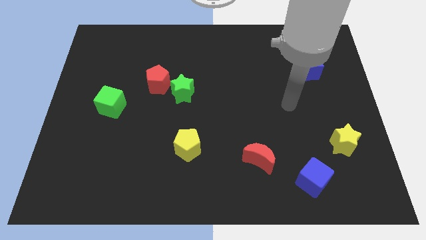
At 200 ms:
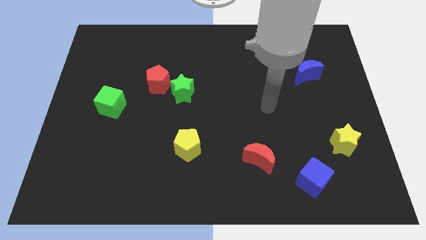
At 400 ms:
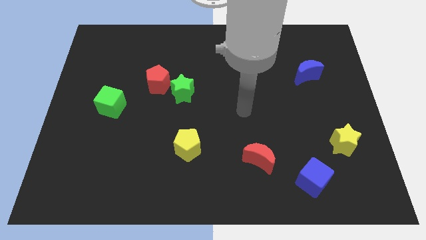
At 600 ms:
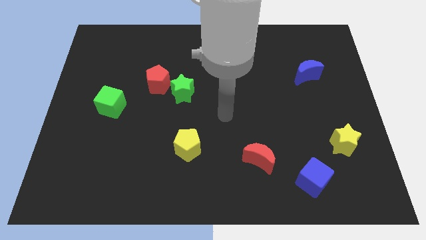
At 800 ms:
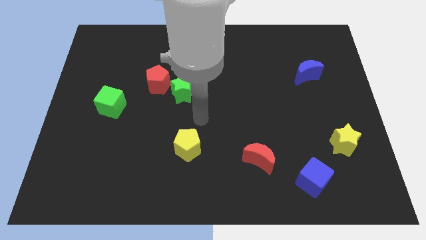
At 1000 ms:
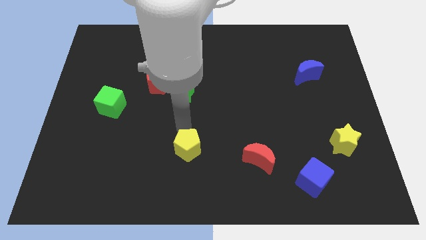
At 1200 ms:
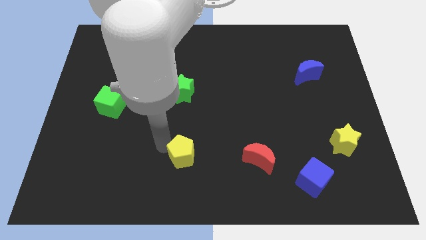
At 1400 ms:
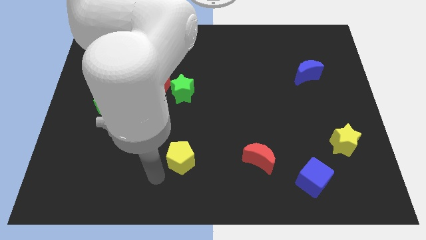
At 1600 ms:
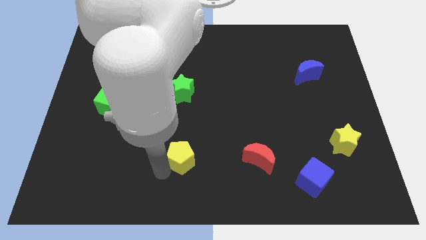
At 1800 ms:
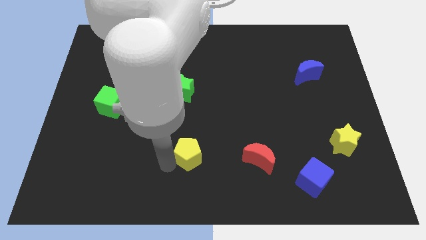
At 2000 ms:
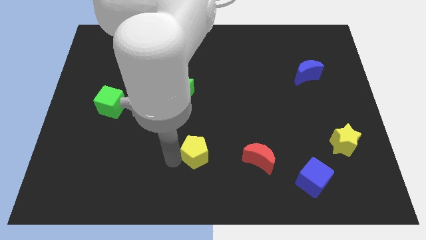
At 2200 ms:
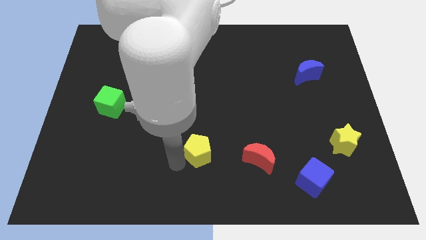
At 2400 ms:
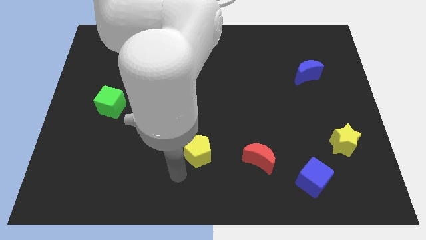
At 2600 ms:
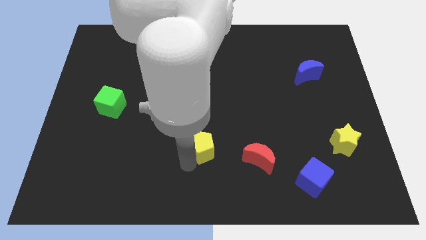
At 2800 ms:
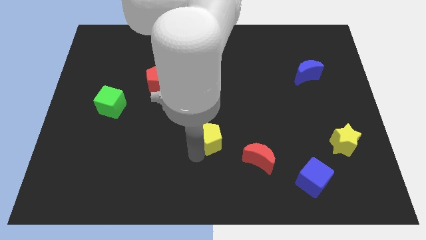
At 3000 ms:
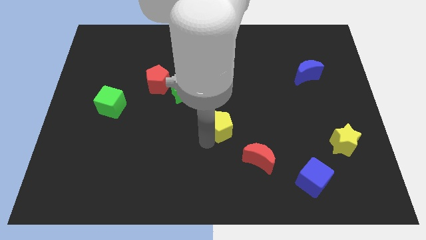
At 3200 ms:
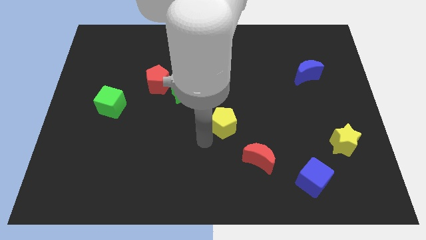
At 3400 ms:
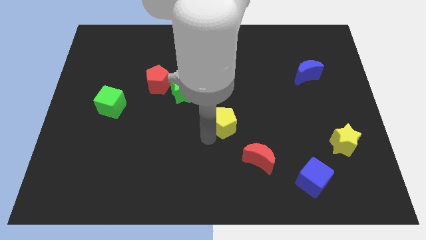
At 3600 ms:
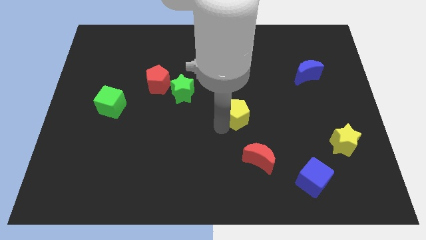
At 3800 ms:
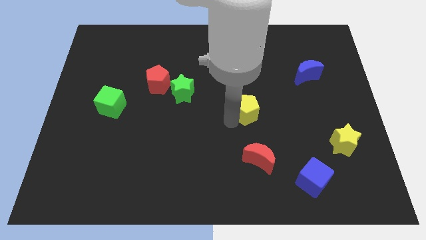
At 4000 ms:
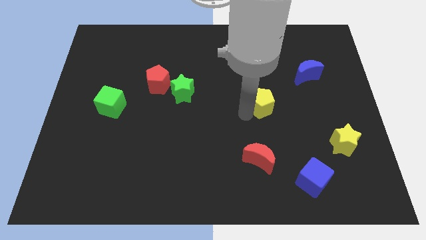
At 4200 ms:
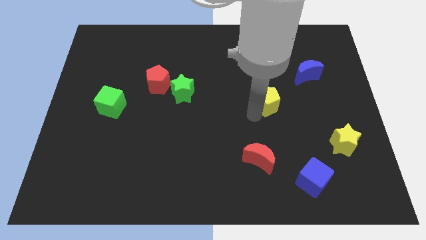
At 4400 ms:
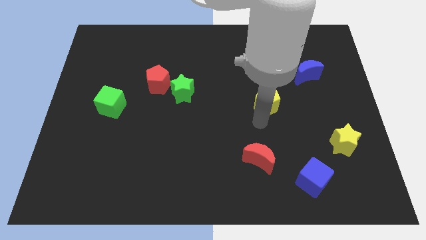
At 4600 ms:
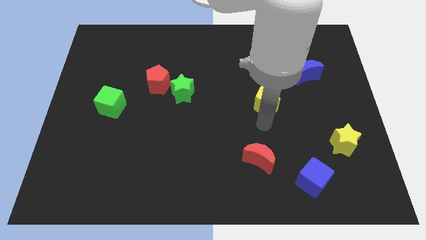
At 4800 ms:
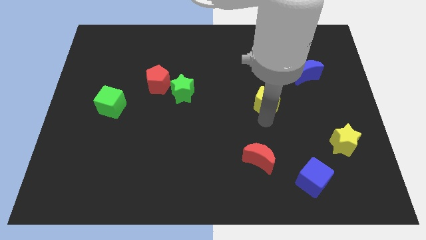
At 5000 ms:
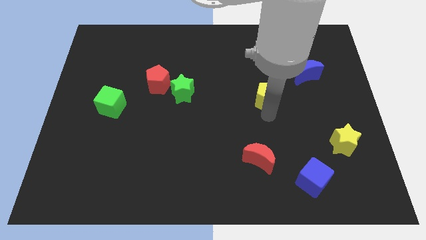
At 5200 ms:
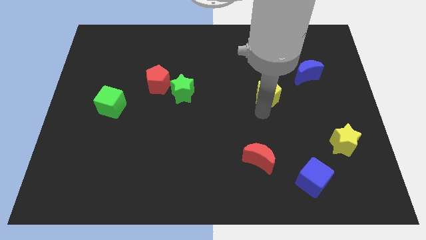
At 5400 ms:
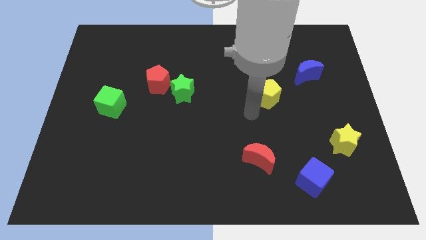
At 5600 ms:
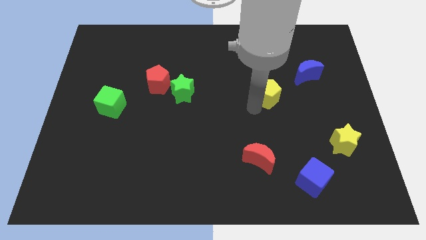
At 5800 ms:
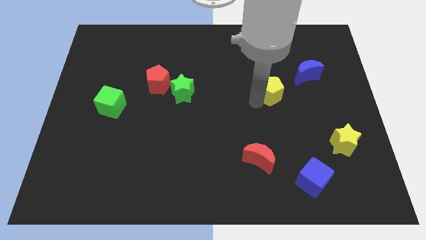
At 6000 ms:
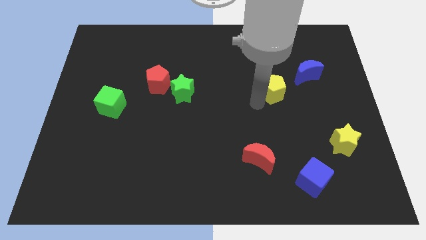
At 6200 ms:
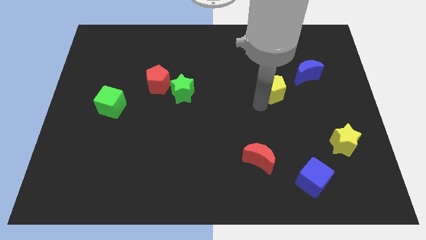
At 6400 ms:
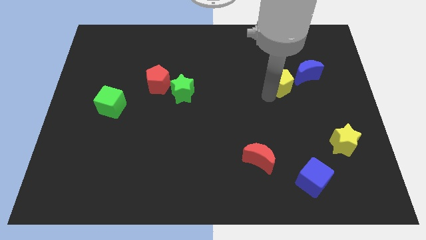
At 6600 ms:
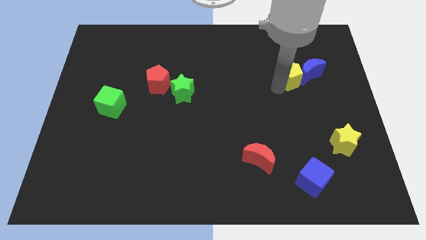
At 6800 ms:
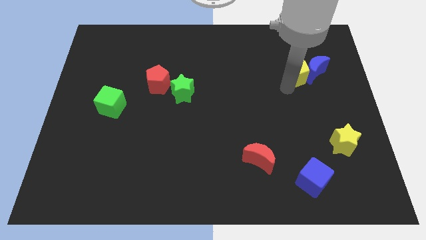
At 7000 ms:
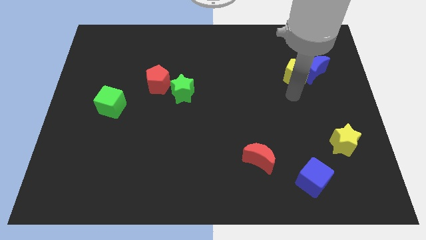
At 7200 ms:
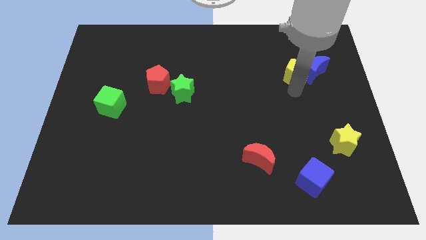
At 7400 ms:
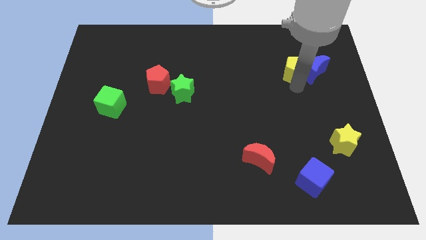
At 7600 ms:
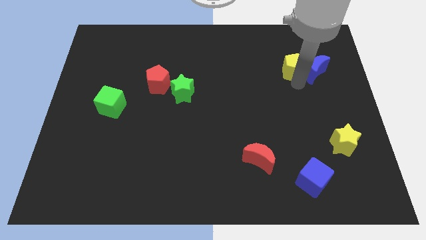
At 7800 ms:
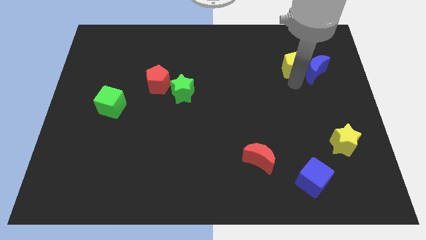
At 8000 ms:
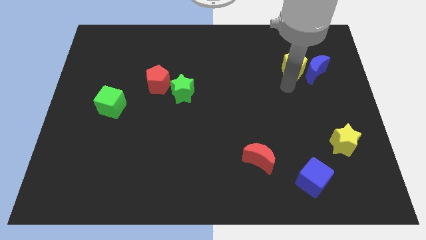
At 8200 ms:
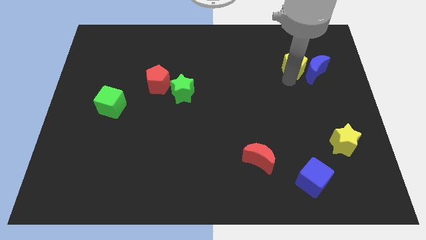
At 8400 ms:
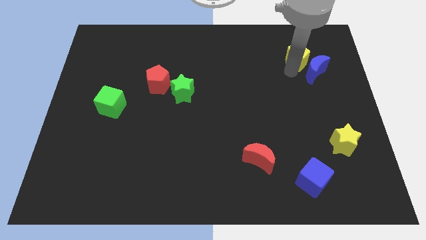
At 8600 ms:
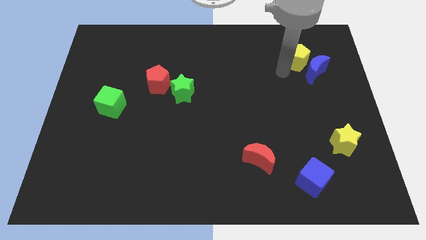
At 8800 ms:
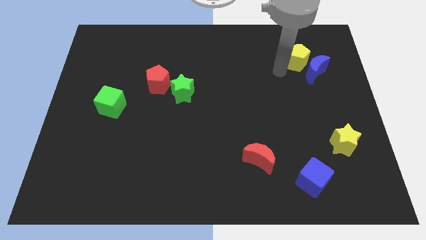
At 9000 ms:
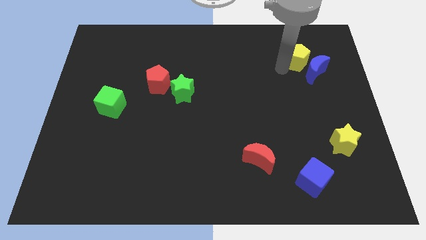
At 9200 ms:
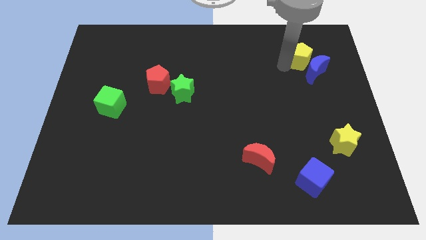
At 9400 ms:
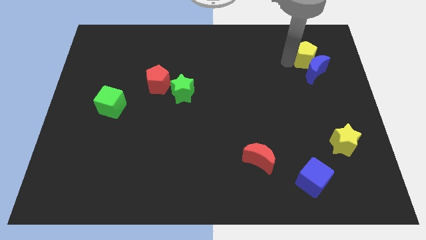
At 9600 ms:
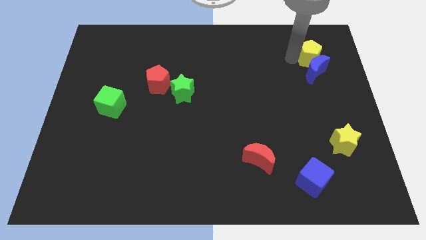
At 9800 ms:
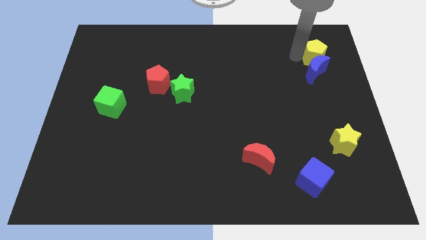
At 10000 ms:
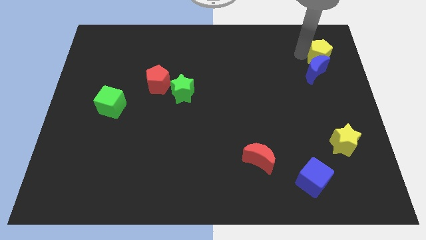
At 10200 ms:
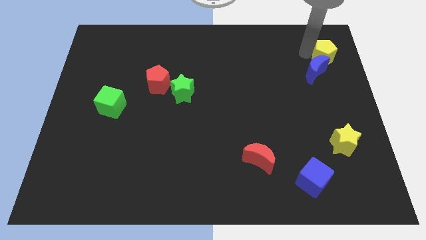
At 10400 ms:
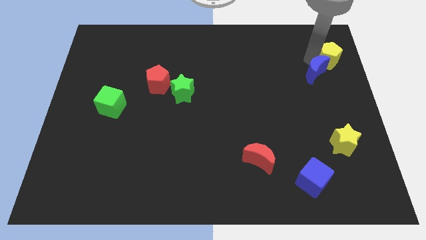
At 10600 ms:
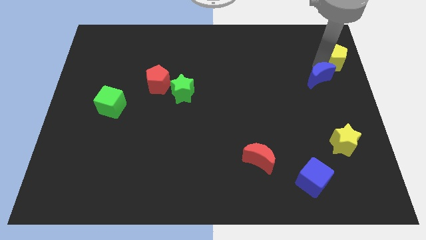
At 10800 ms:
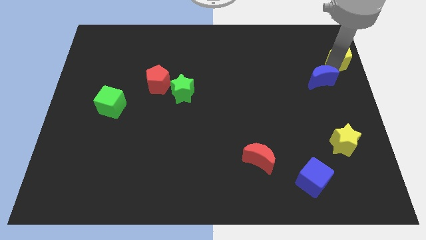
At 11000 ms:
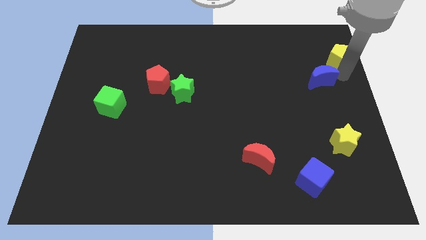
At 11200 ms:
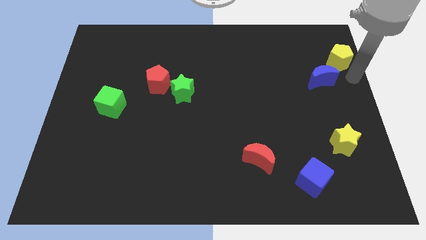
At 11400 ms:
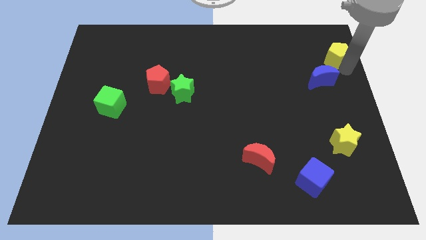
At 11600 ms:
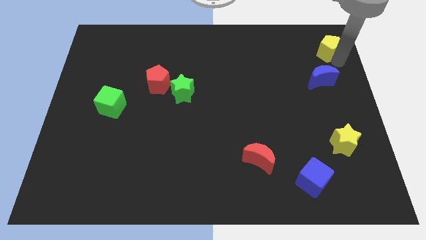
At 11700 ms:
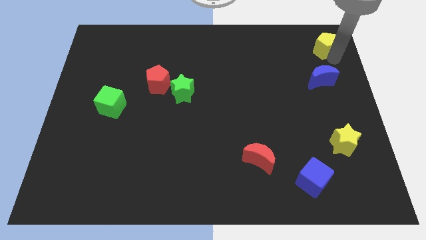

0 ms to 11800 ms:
slide the yellow pentagon to the top right of the board
